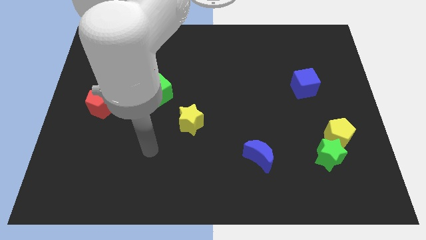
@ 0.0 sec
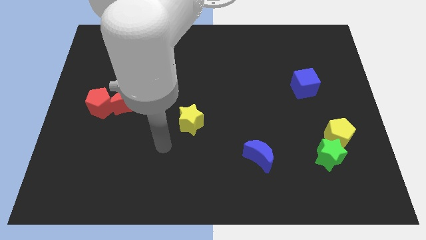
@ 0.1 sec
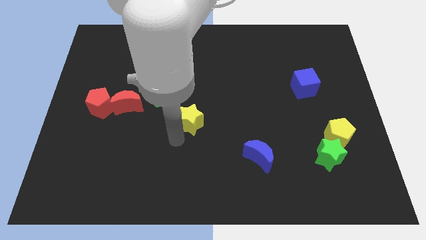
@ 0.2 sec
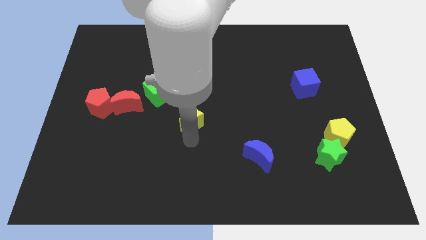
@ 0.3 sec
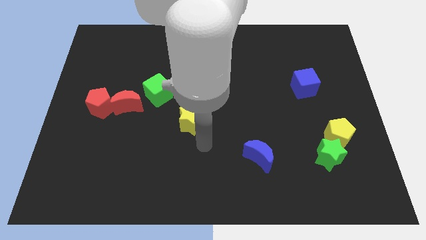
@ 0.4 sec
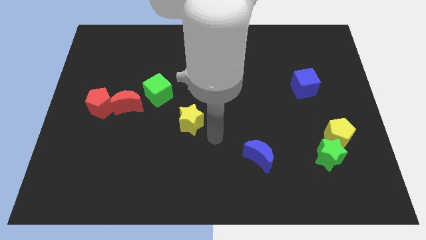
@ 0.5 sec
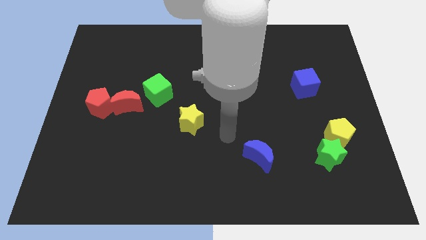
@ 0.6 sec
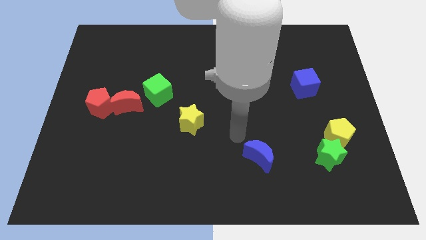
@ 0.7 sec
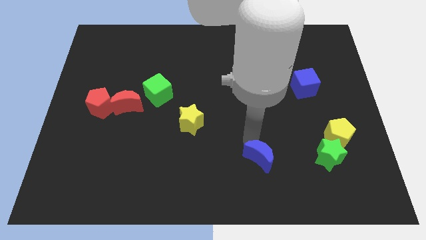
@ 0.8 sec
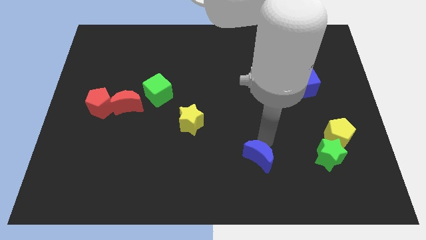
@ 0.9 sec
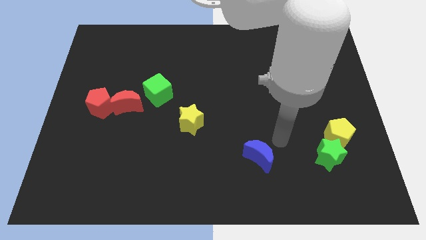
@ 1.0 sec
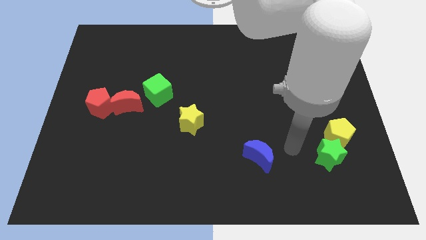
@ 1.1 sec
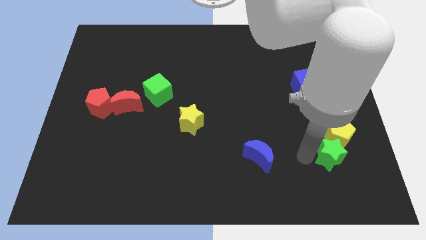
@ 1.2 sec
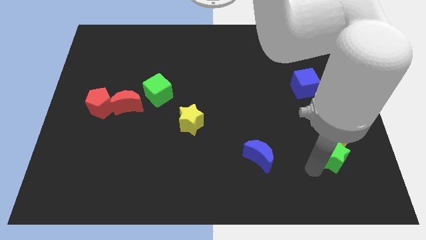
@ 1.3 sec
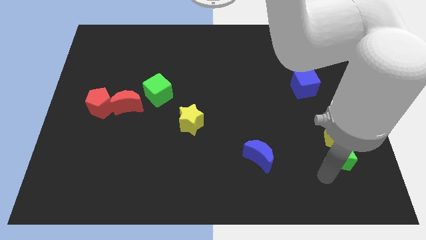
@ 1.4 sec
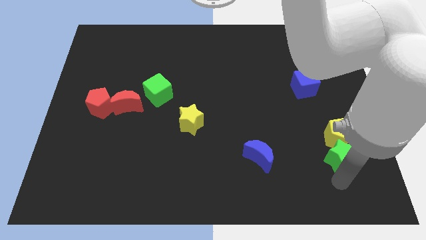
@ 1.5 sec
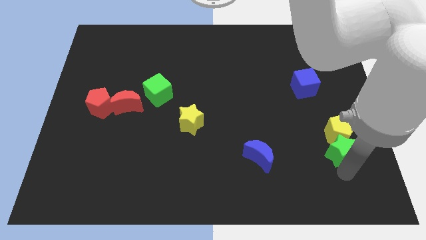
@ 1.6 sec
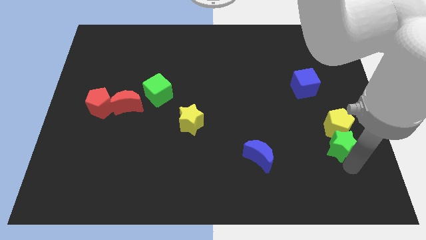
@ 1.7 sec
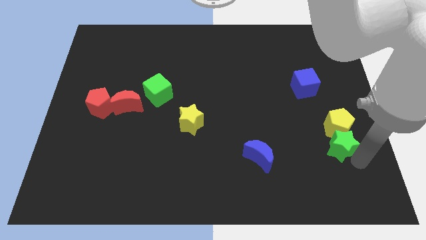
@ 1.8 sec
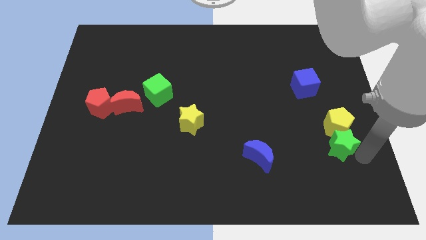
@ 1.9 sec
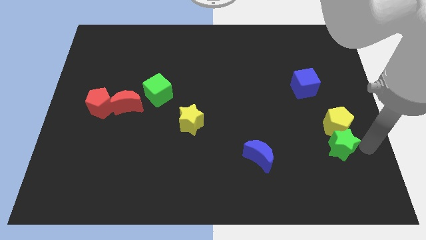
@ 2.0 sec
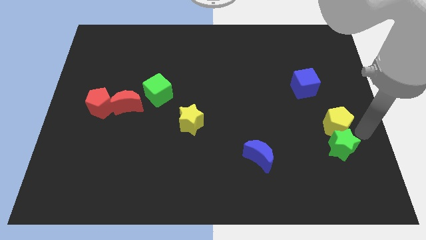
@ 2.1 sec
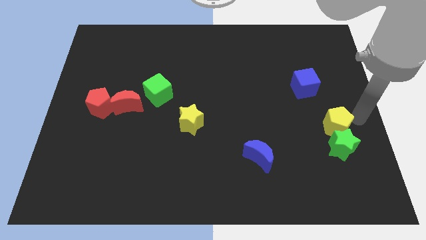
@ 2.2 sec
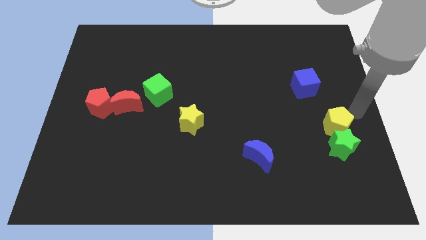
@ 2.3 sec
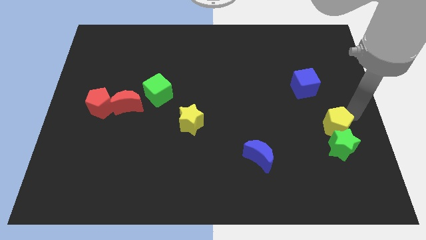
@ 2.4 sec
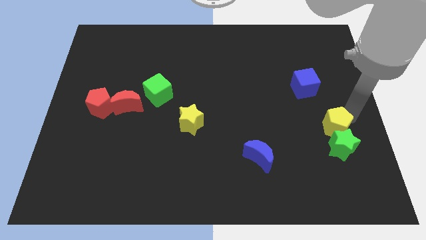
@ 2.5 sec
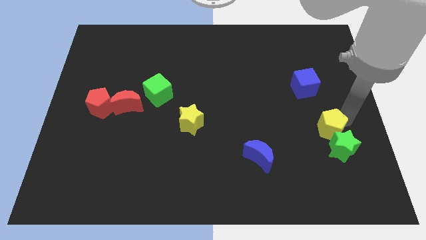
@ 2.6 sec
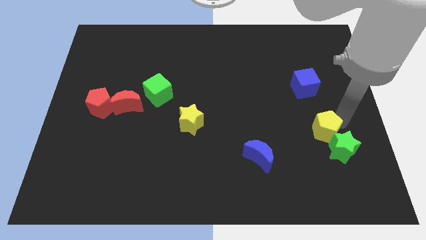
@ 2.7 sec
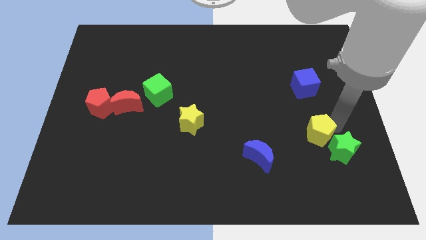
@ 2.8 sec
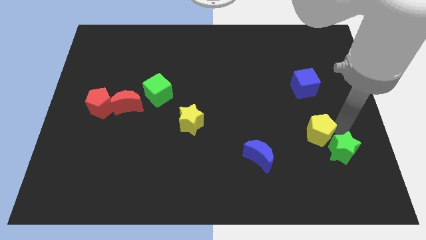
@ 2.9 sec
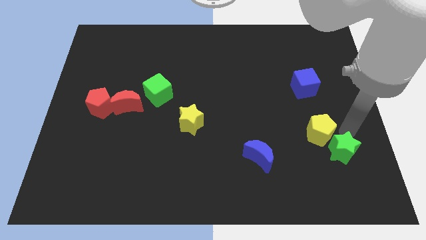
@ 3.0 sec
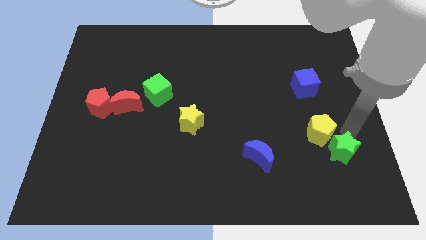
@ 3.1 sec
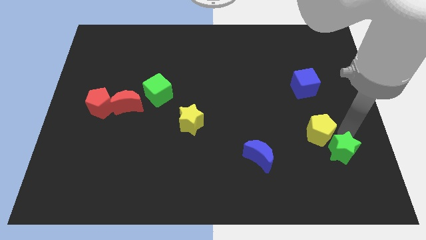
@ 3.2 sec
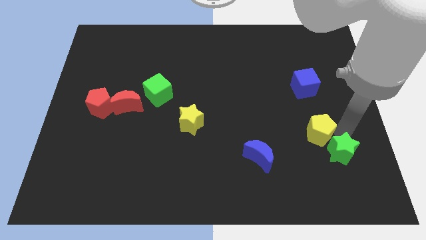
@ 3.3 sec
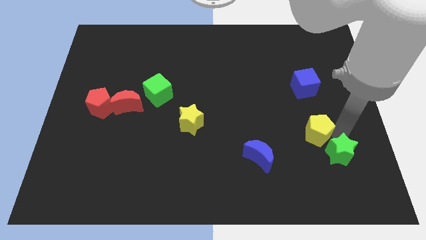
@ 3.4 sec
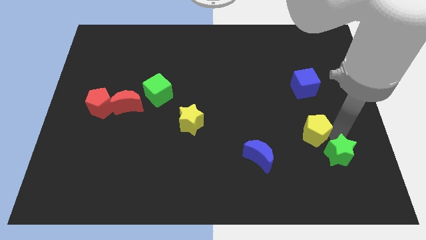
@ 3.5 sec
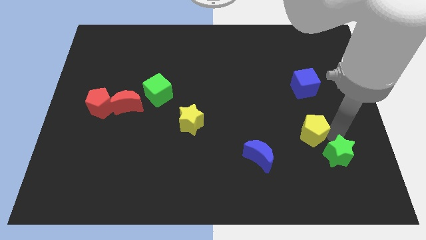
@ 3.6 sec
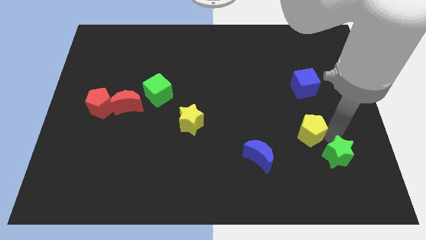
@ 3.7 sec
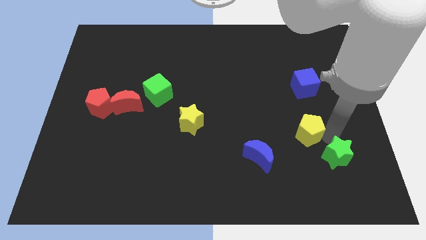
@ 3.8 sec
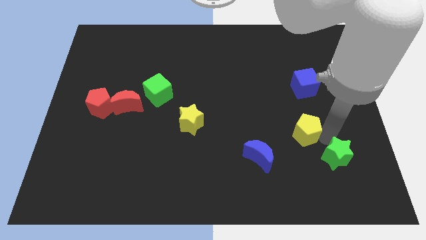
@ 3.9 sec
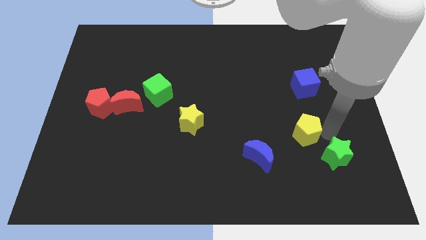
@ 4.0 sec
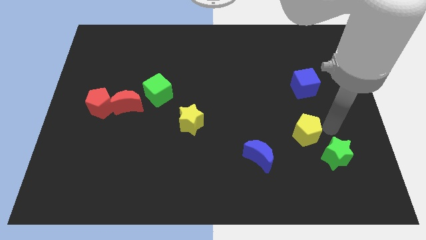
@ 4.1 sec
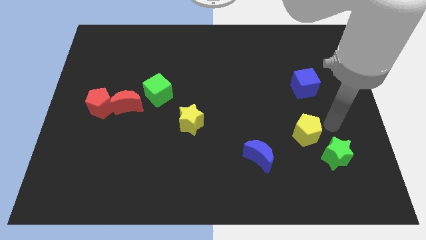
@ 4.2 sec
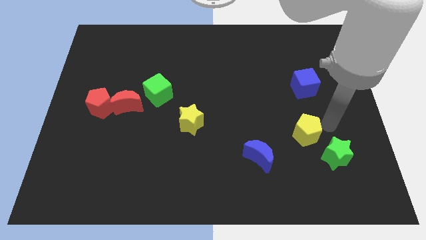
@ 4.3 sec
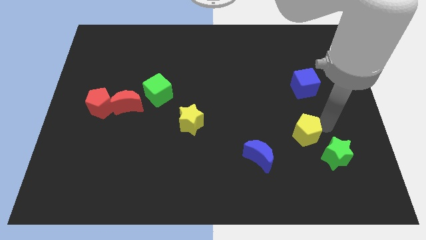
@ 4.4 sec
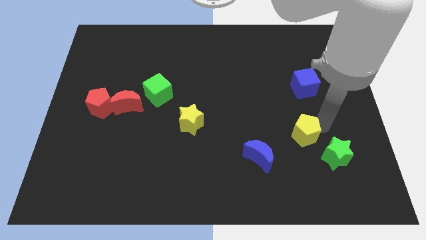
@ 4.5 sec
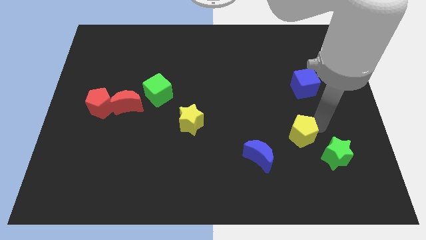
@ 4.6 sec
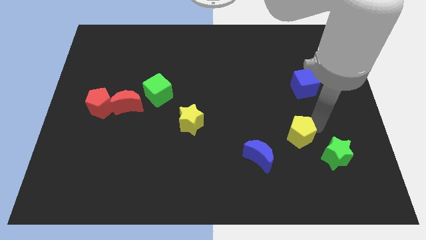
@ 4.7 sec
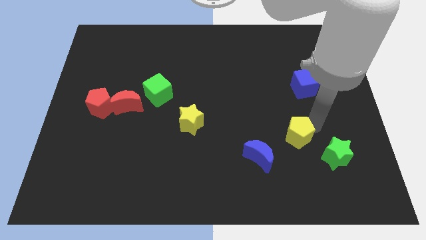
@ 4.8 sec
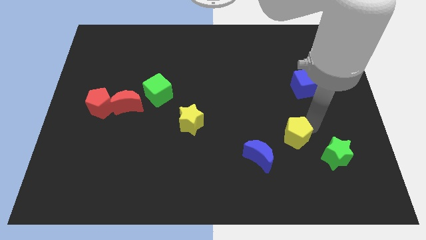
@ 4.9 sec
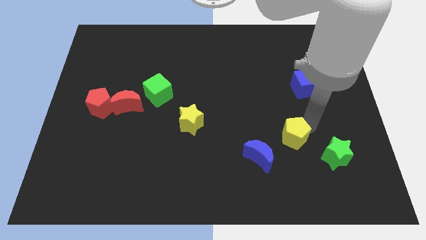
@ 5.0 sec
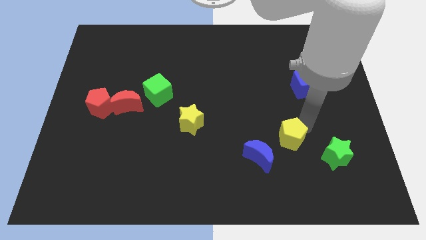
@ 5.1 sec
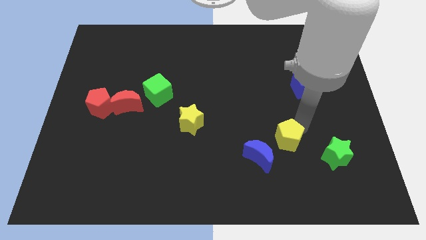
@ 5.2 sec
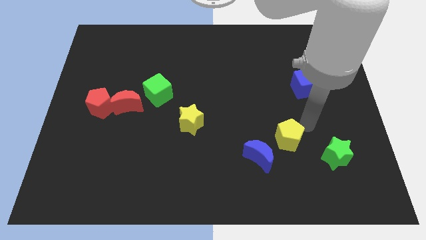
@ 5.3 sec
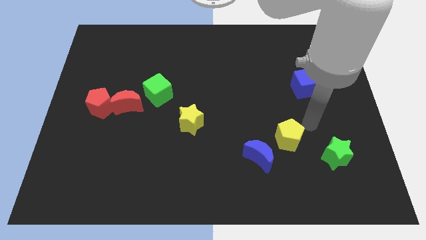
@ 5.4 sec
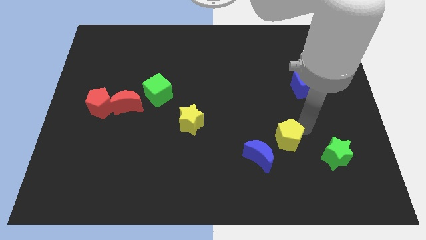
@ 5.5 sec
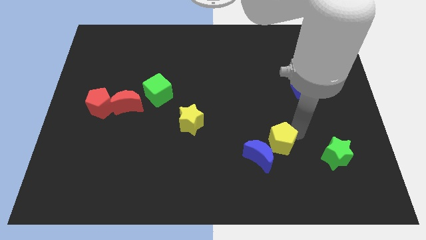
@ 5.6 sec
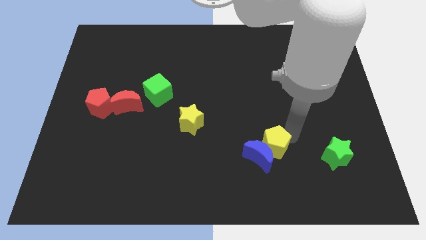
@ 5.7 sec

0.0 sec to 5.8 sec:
push the yellow pentagon to the blue moon

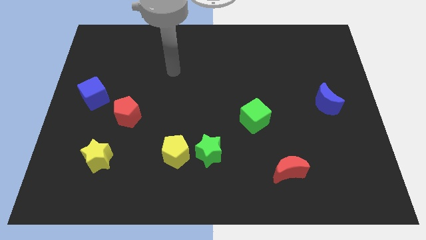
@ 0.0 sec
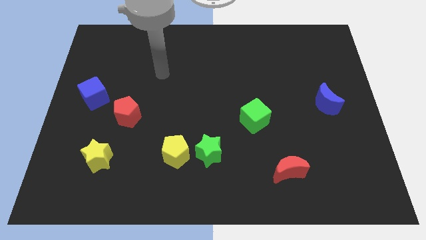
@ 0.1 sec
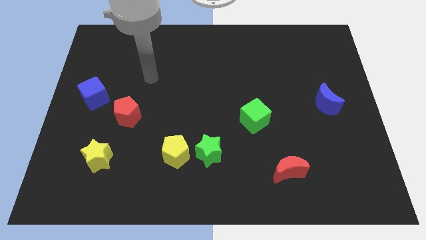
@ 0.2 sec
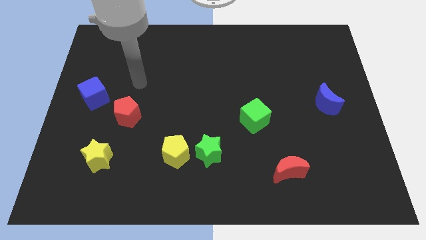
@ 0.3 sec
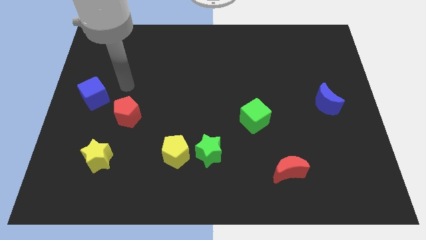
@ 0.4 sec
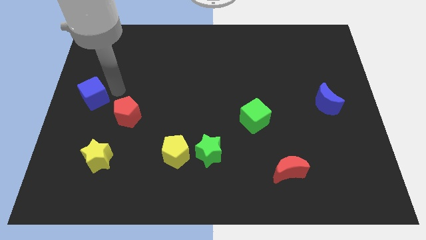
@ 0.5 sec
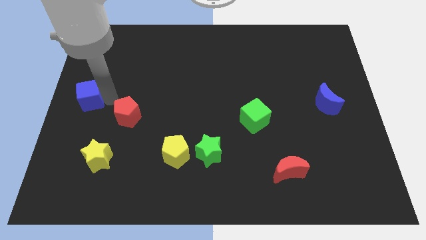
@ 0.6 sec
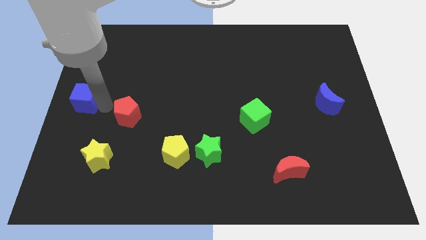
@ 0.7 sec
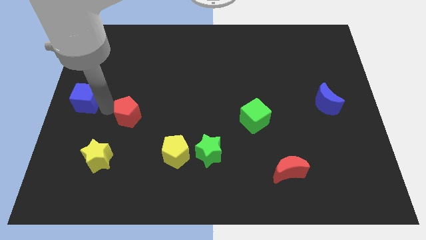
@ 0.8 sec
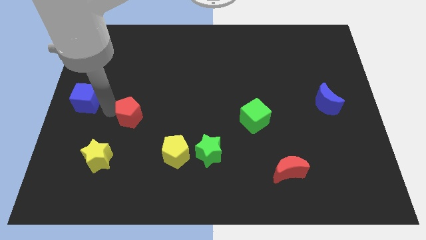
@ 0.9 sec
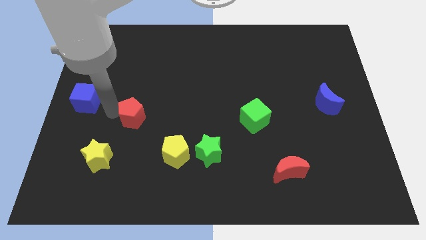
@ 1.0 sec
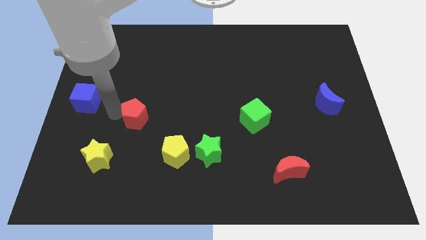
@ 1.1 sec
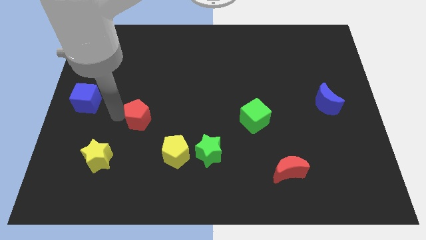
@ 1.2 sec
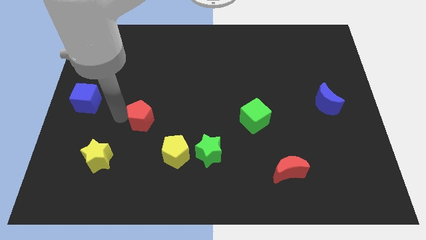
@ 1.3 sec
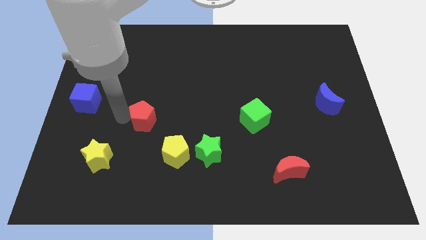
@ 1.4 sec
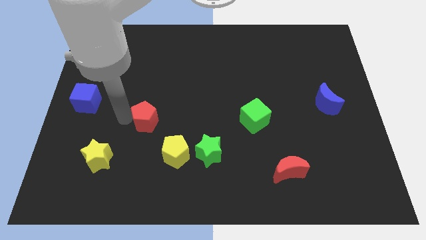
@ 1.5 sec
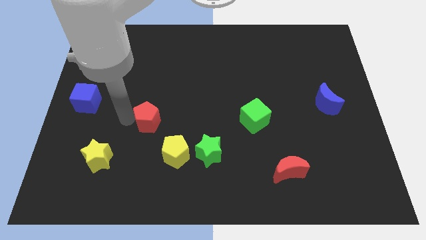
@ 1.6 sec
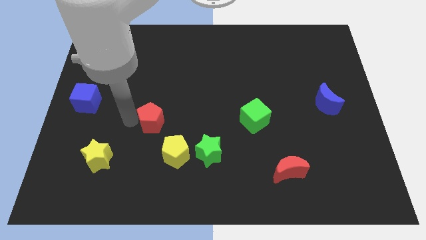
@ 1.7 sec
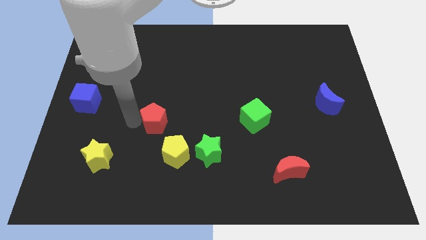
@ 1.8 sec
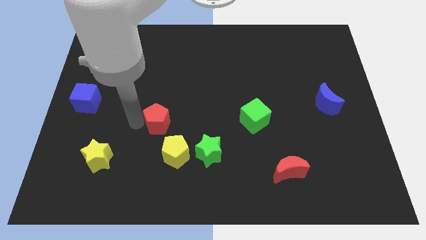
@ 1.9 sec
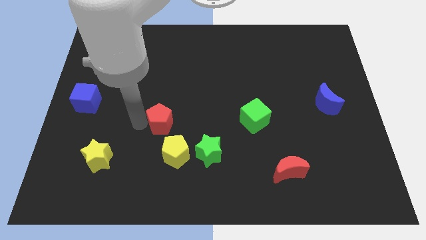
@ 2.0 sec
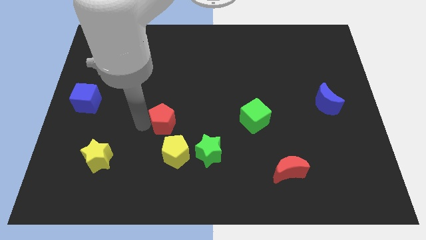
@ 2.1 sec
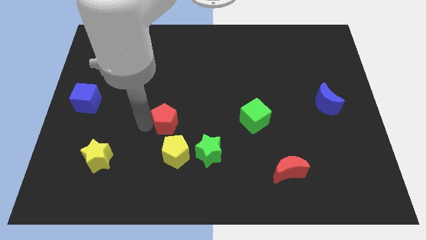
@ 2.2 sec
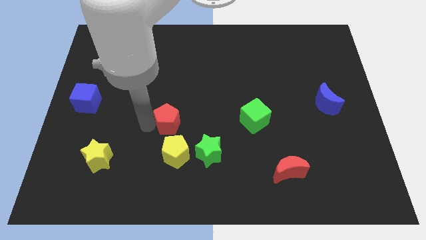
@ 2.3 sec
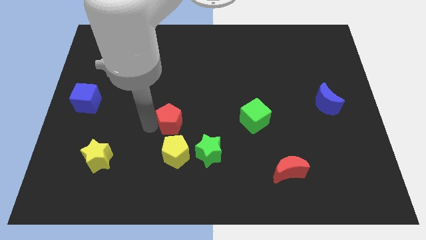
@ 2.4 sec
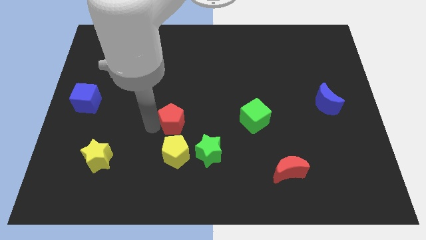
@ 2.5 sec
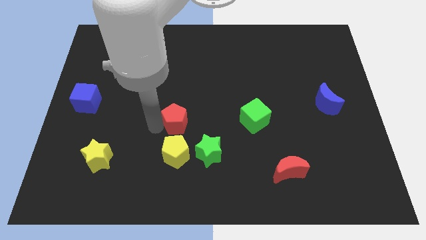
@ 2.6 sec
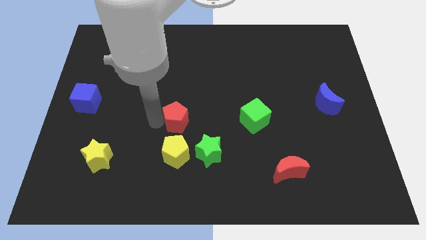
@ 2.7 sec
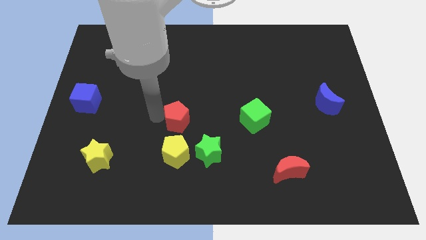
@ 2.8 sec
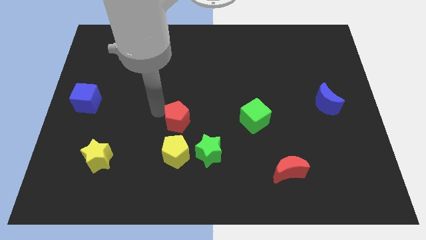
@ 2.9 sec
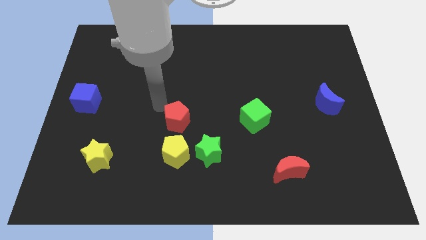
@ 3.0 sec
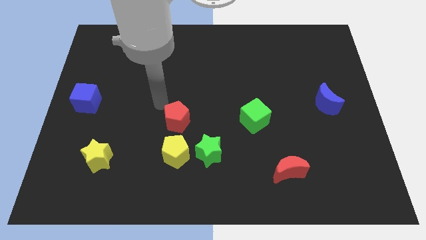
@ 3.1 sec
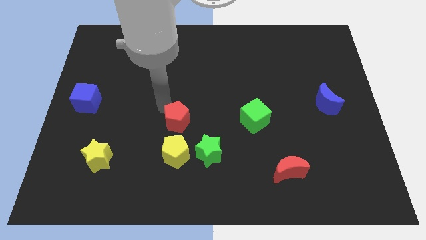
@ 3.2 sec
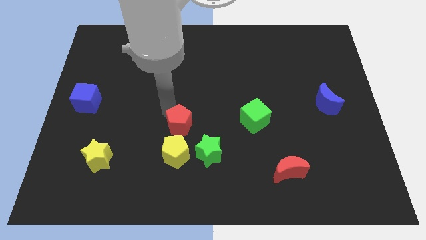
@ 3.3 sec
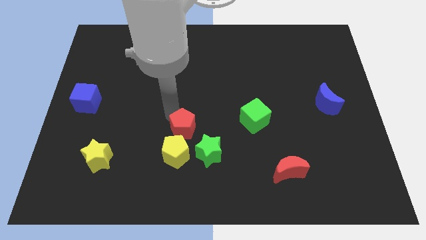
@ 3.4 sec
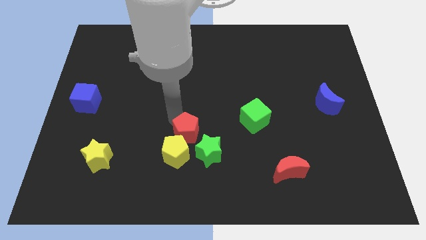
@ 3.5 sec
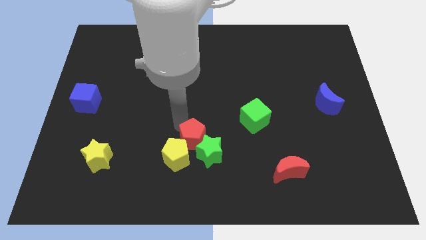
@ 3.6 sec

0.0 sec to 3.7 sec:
slide the red pentagon next to the green star
